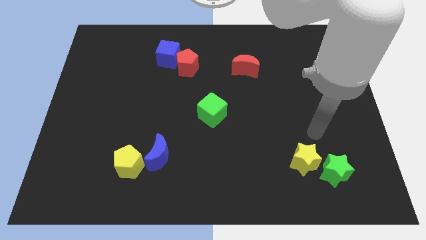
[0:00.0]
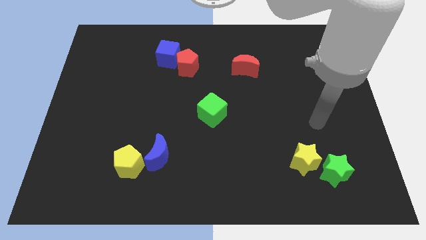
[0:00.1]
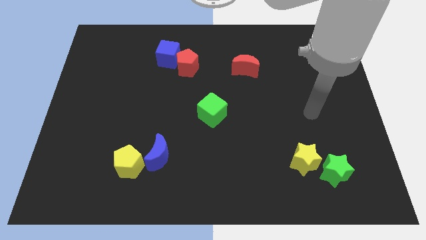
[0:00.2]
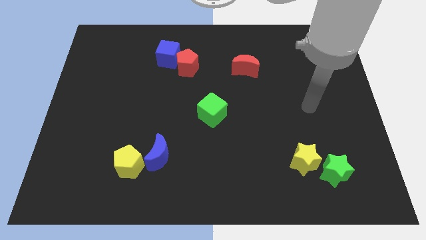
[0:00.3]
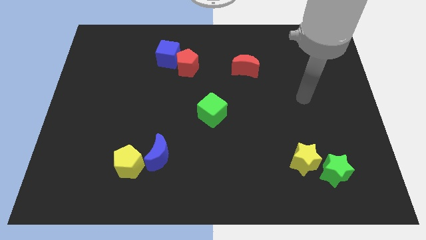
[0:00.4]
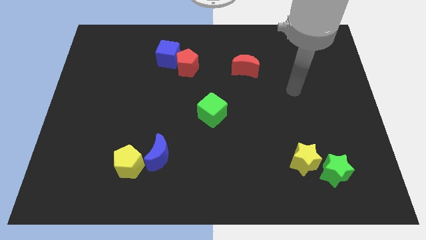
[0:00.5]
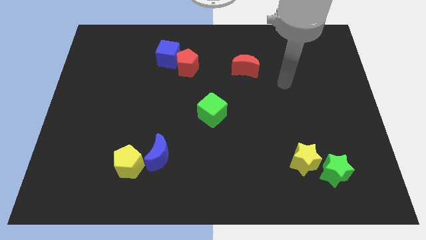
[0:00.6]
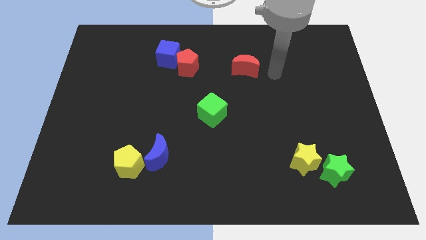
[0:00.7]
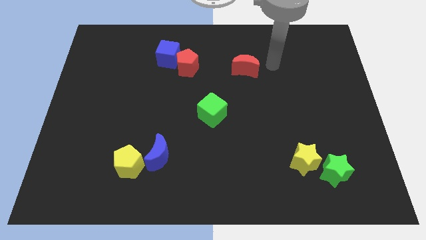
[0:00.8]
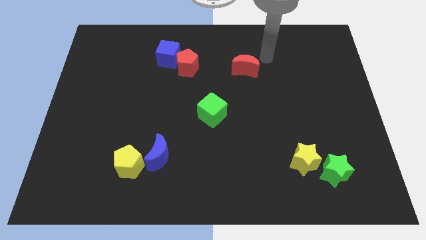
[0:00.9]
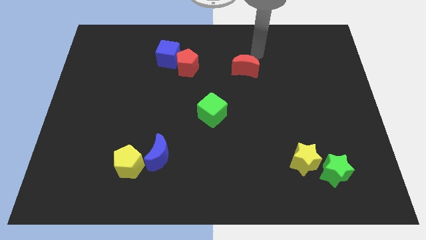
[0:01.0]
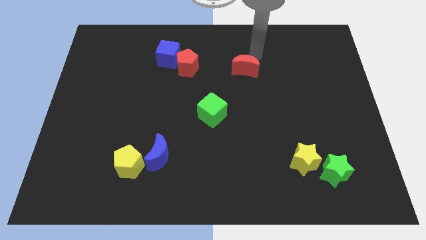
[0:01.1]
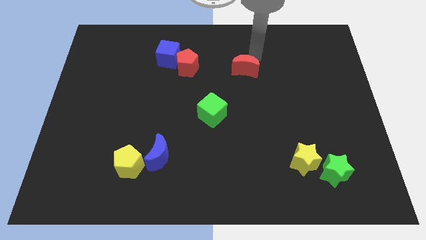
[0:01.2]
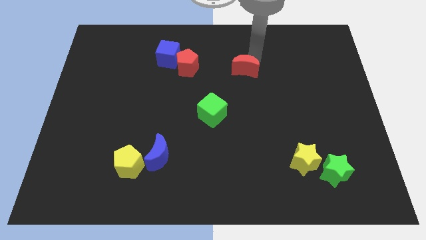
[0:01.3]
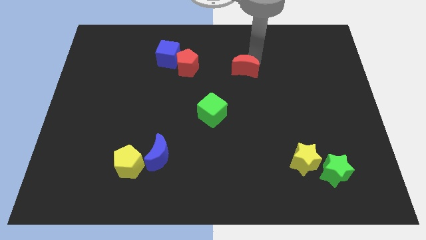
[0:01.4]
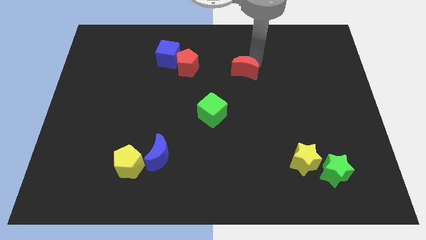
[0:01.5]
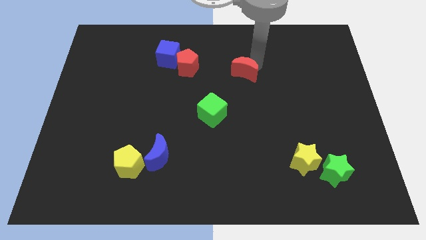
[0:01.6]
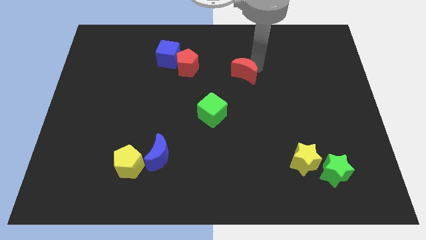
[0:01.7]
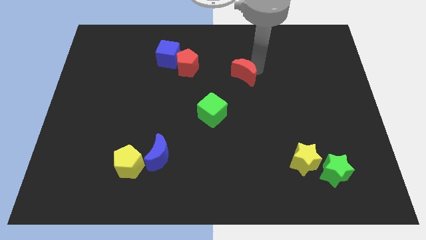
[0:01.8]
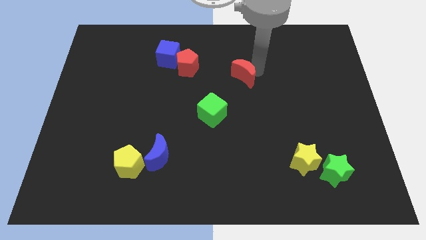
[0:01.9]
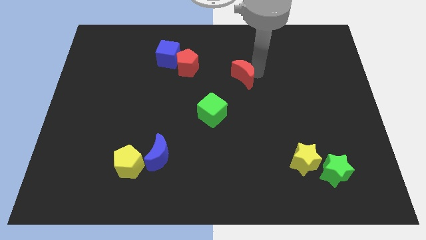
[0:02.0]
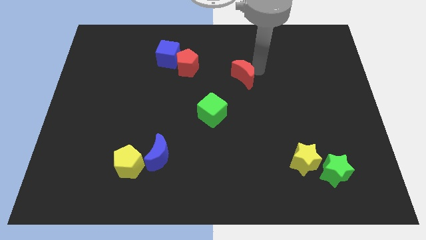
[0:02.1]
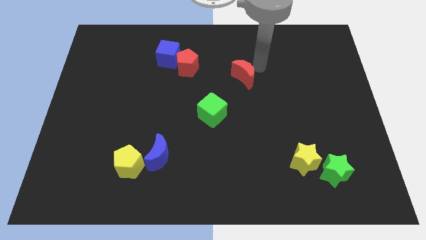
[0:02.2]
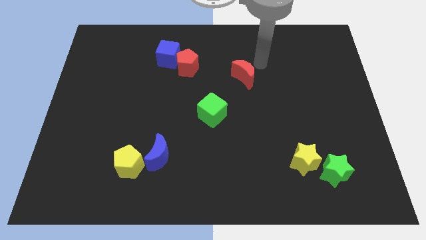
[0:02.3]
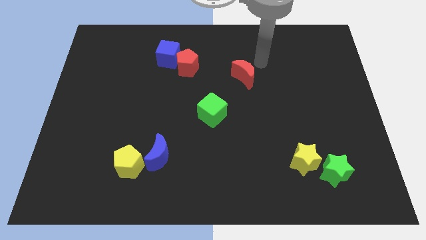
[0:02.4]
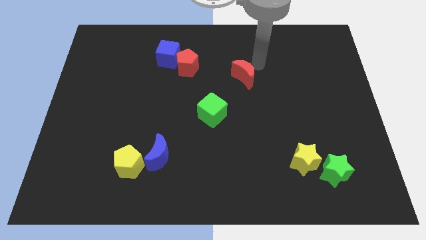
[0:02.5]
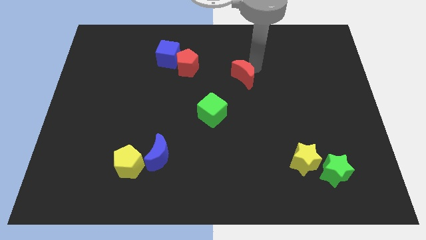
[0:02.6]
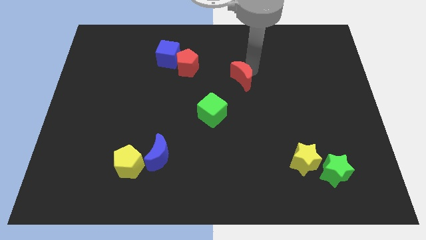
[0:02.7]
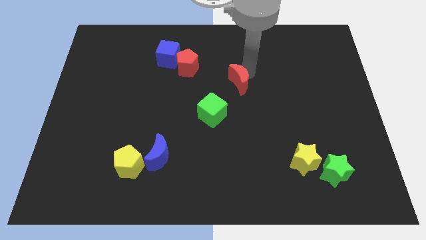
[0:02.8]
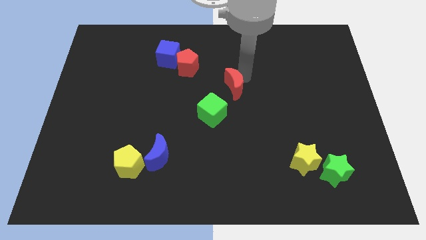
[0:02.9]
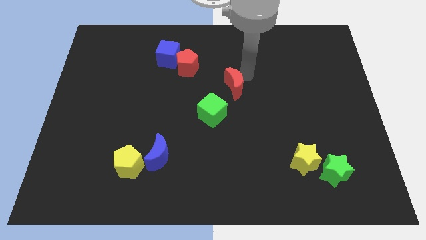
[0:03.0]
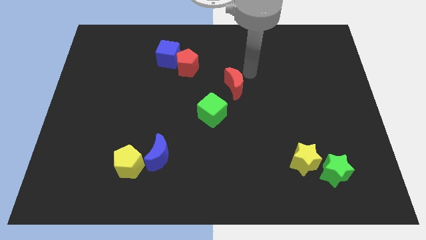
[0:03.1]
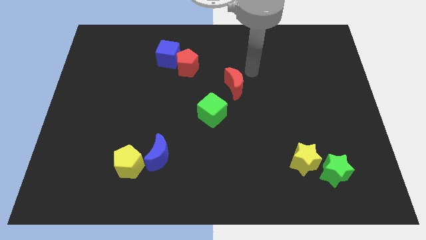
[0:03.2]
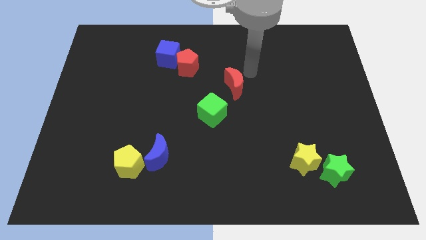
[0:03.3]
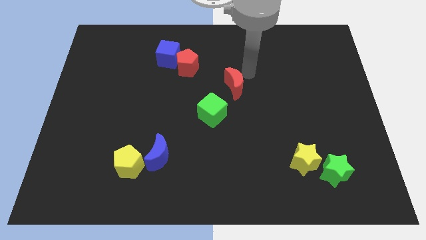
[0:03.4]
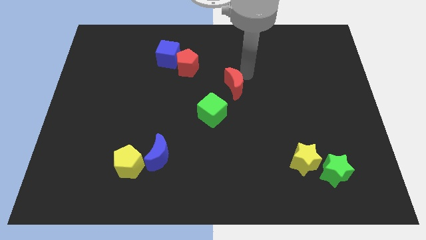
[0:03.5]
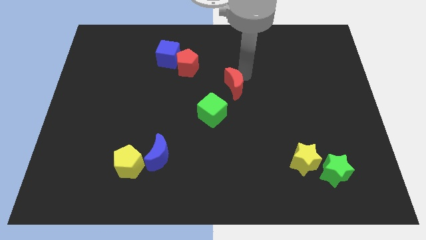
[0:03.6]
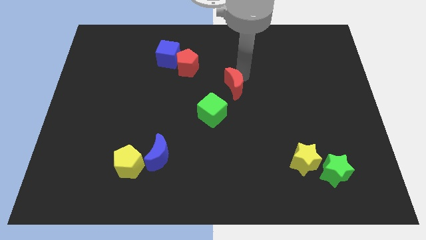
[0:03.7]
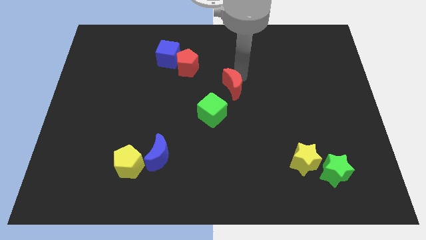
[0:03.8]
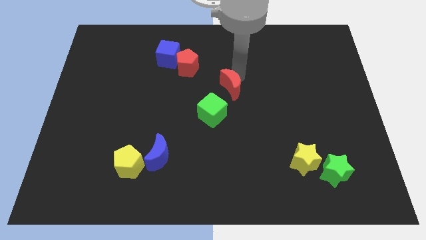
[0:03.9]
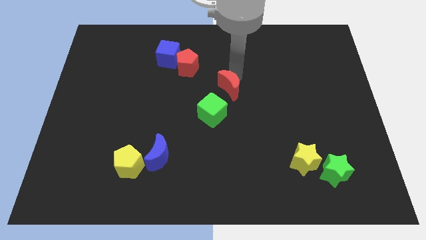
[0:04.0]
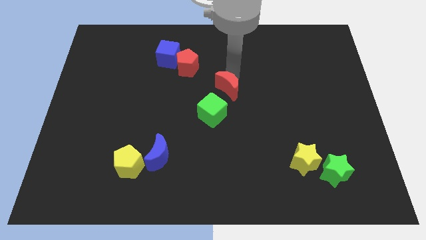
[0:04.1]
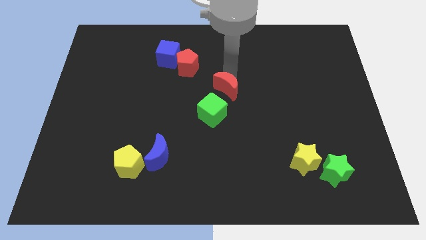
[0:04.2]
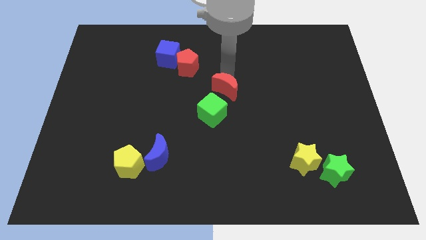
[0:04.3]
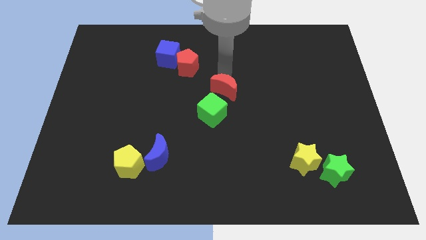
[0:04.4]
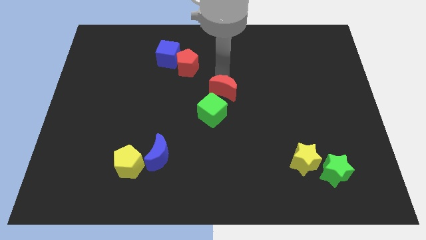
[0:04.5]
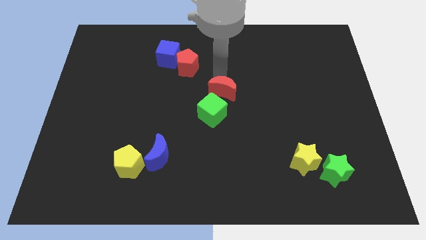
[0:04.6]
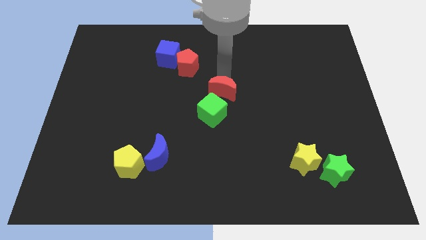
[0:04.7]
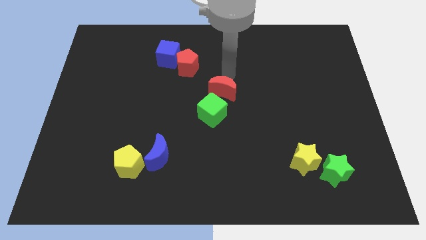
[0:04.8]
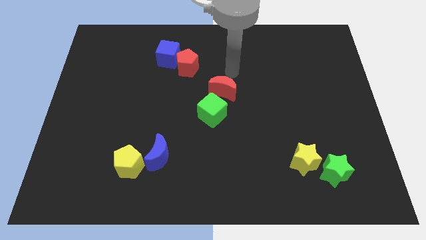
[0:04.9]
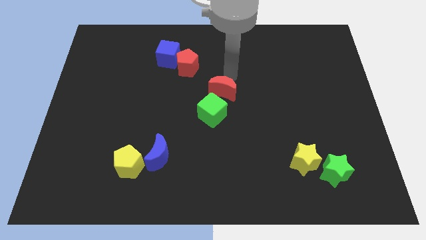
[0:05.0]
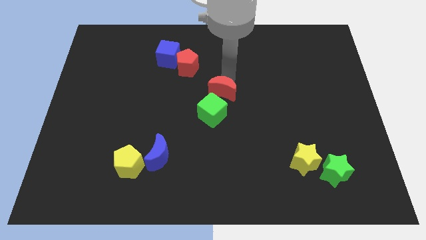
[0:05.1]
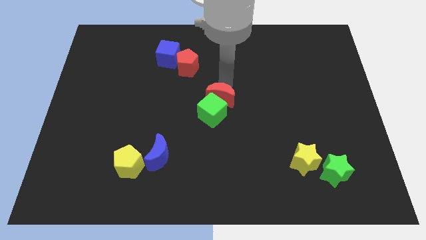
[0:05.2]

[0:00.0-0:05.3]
put the red moon to the green cube

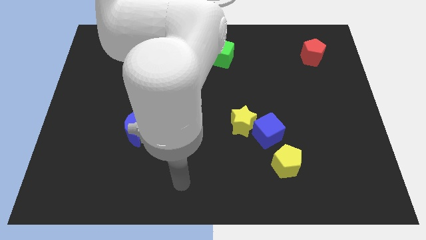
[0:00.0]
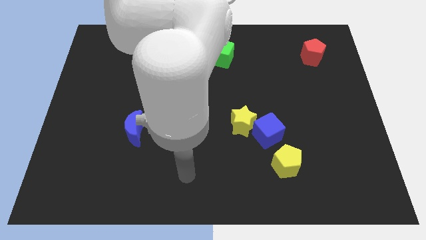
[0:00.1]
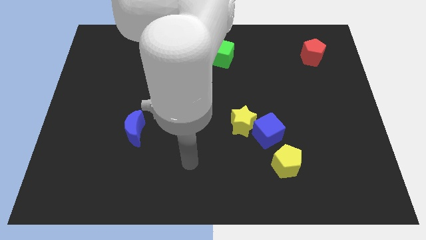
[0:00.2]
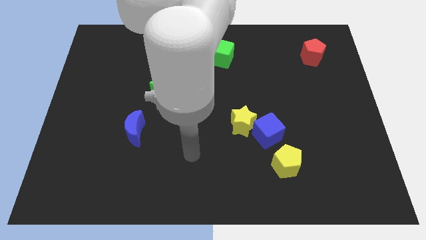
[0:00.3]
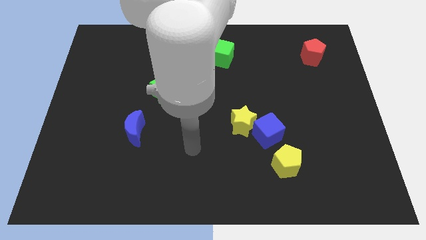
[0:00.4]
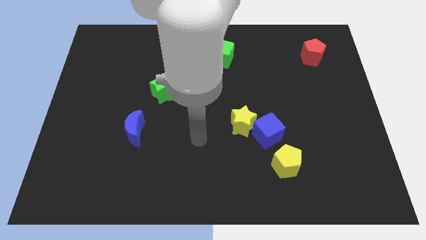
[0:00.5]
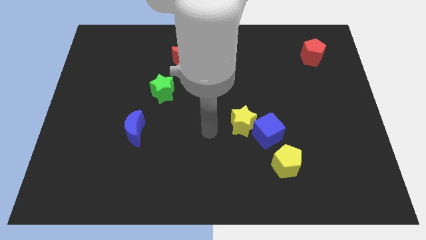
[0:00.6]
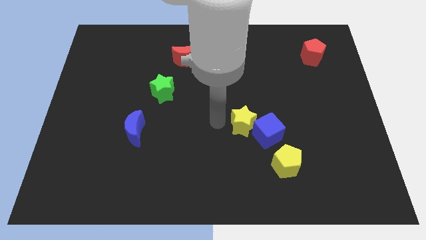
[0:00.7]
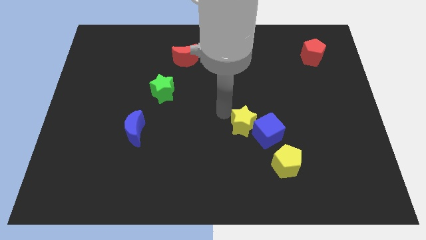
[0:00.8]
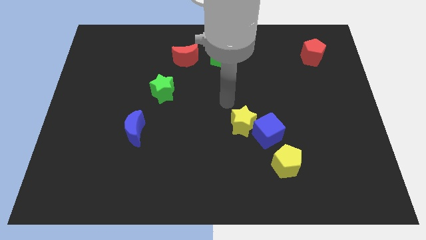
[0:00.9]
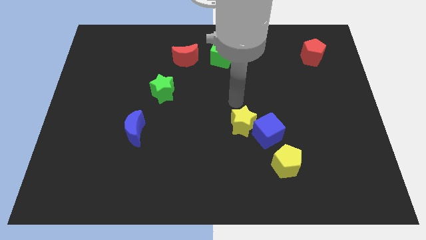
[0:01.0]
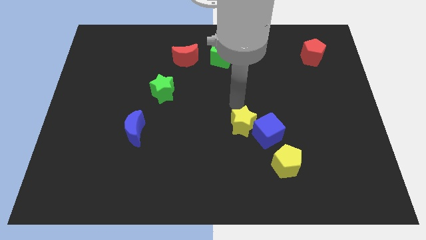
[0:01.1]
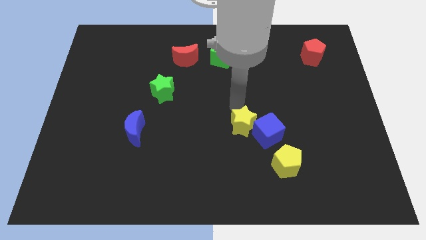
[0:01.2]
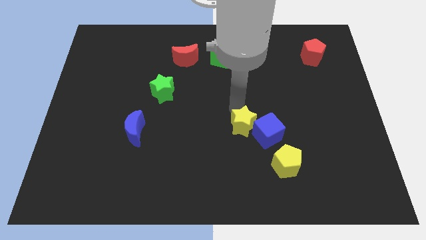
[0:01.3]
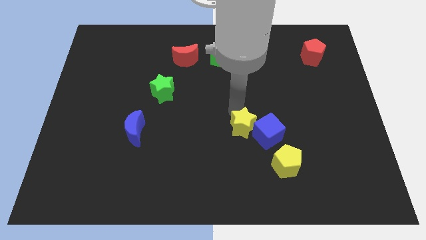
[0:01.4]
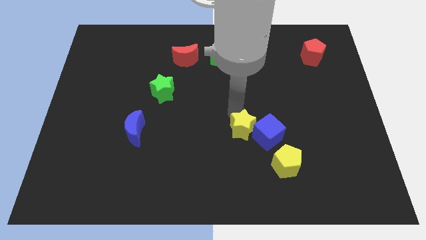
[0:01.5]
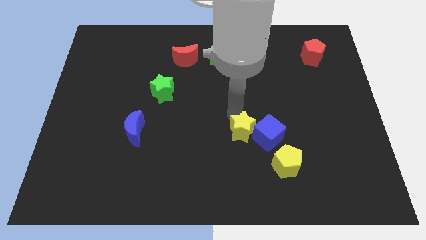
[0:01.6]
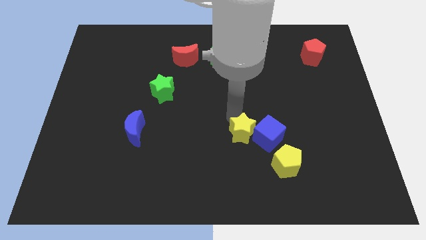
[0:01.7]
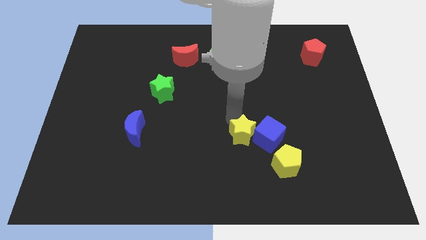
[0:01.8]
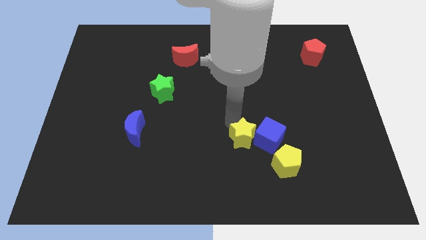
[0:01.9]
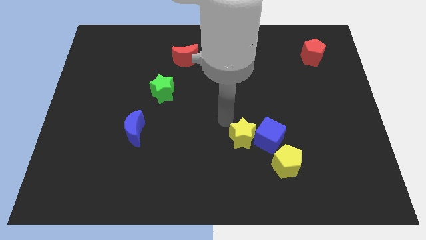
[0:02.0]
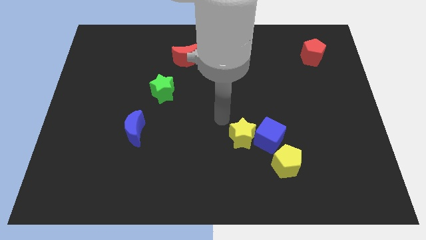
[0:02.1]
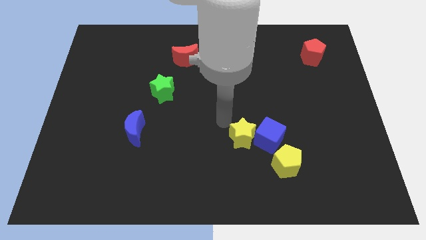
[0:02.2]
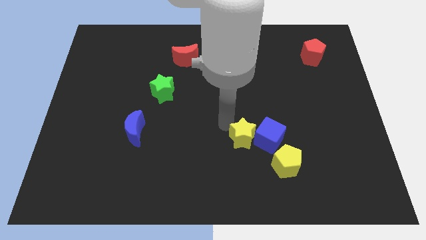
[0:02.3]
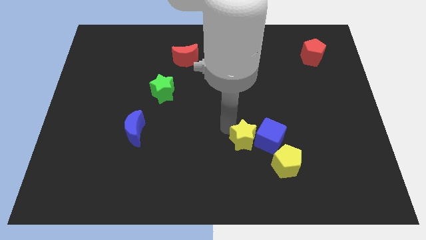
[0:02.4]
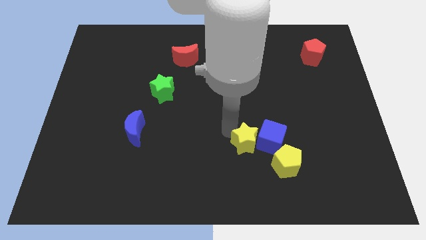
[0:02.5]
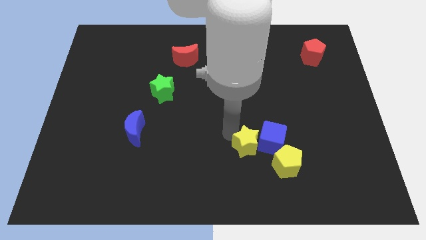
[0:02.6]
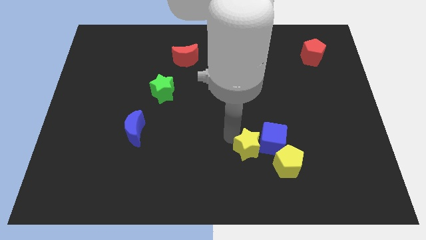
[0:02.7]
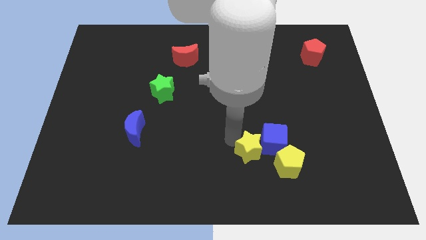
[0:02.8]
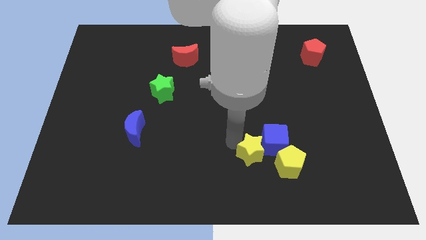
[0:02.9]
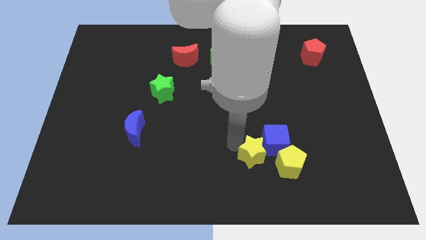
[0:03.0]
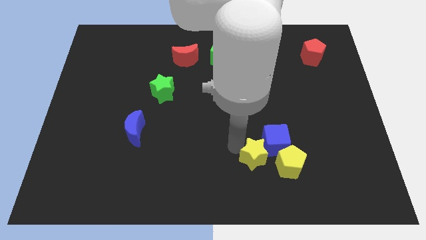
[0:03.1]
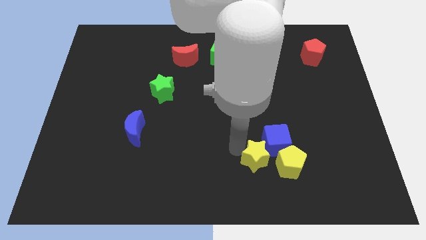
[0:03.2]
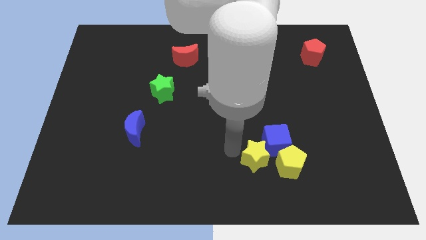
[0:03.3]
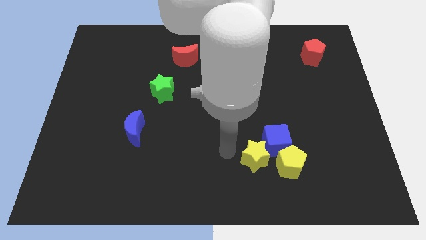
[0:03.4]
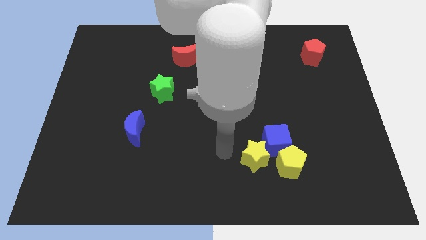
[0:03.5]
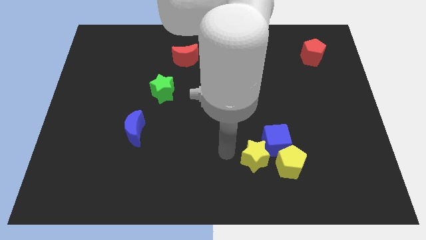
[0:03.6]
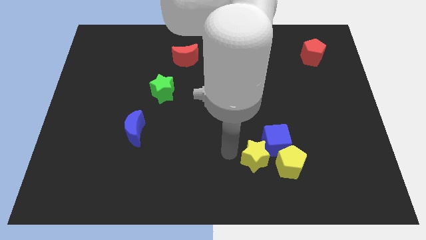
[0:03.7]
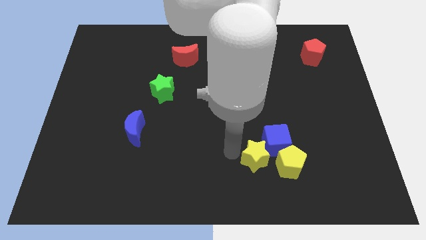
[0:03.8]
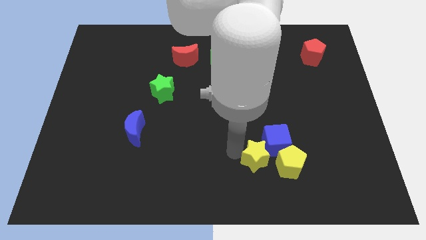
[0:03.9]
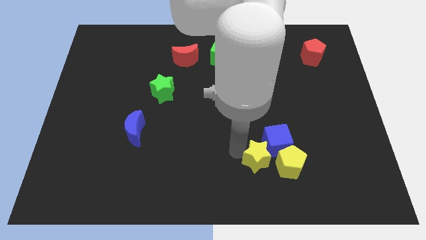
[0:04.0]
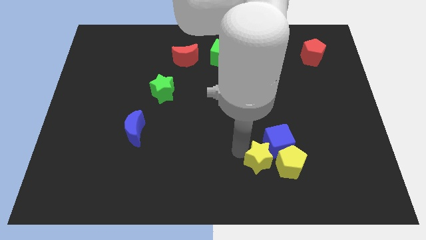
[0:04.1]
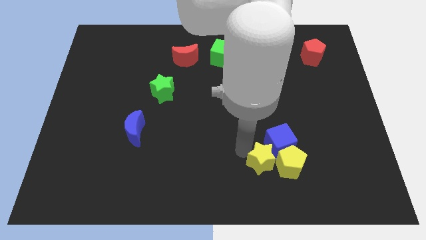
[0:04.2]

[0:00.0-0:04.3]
push the yellow star next to the yellow pentagon
